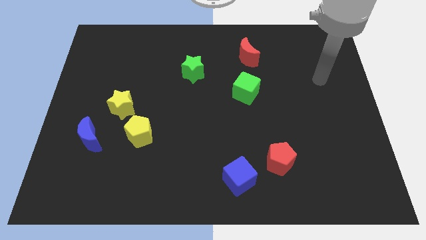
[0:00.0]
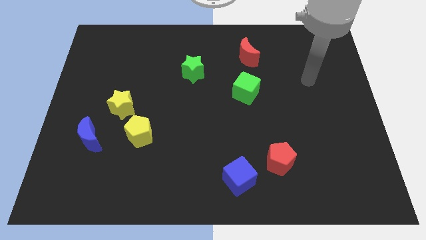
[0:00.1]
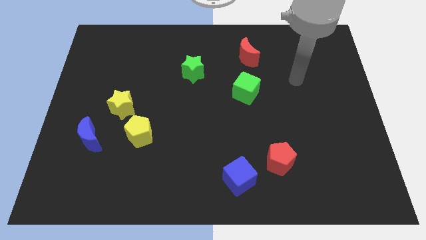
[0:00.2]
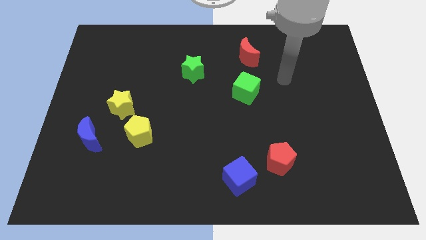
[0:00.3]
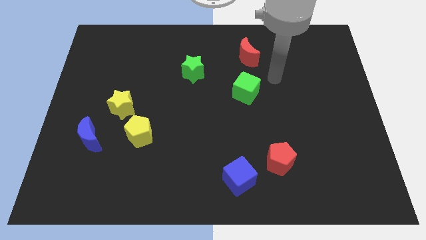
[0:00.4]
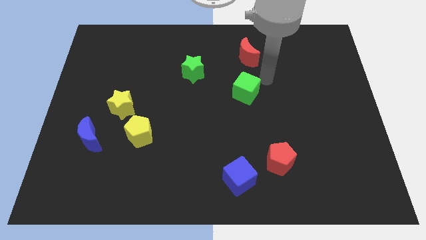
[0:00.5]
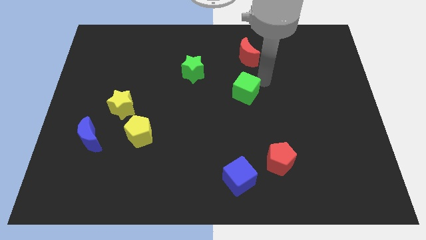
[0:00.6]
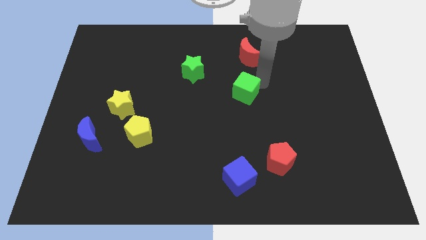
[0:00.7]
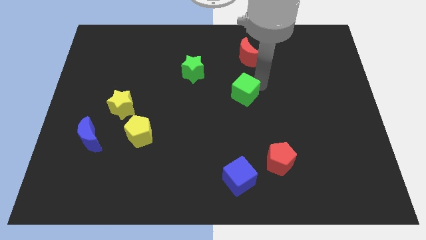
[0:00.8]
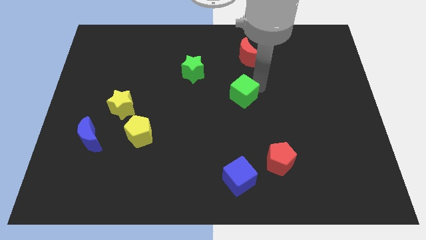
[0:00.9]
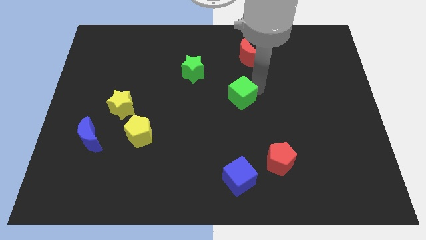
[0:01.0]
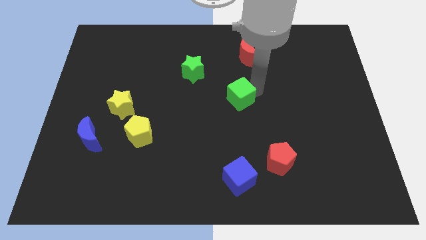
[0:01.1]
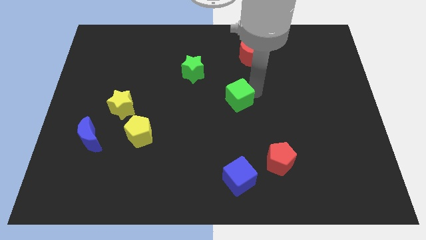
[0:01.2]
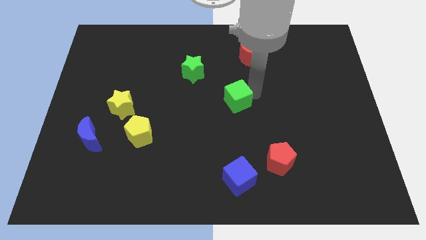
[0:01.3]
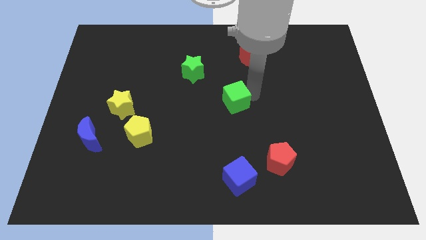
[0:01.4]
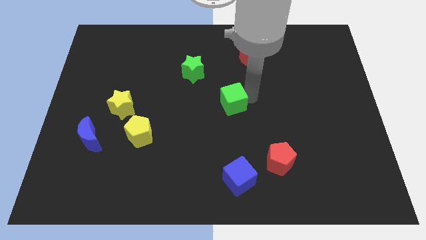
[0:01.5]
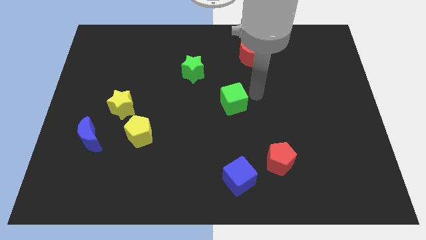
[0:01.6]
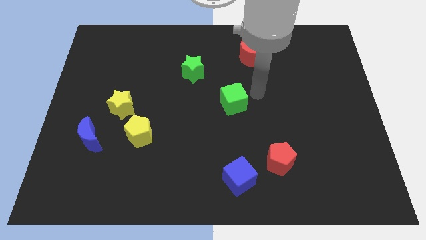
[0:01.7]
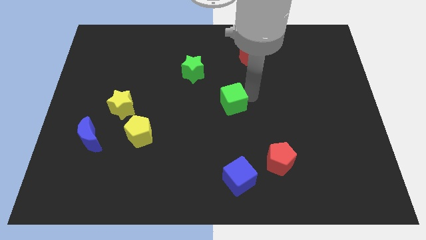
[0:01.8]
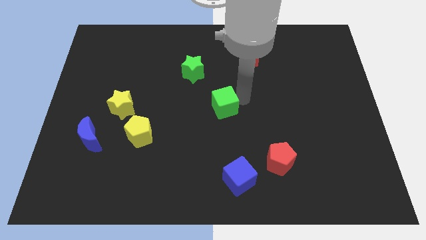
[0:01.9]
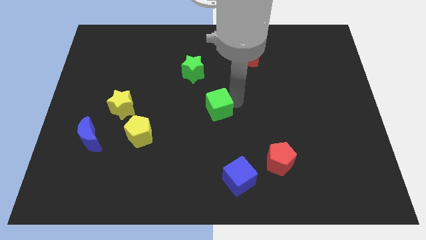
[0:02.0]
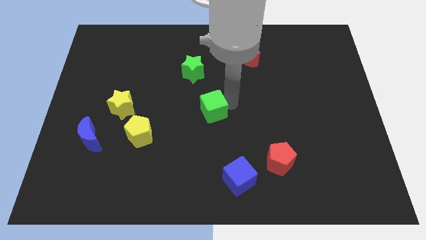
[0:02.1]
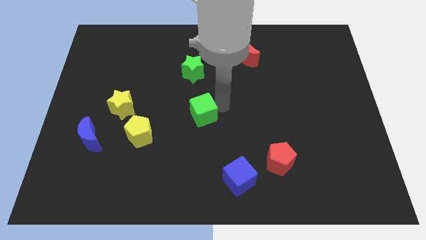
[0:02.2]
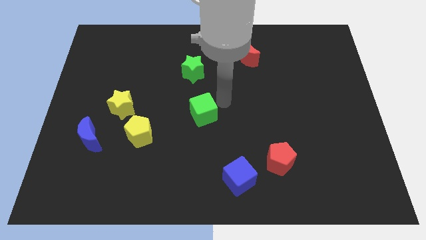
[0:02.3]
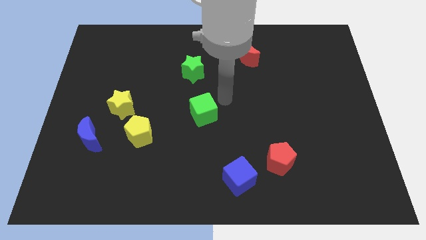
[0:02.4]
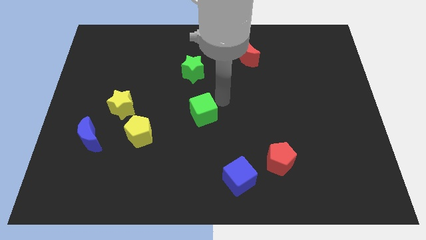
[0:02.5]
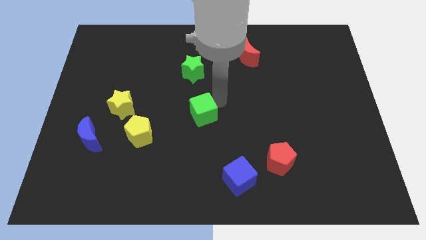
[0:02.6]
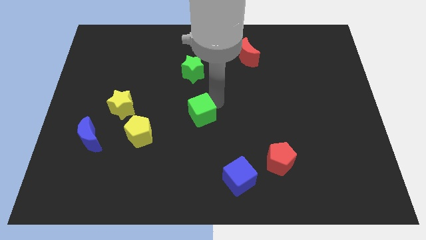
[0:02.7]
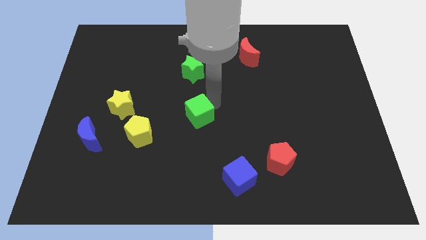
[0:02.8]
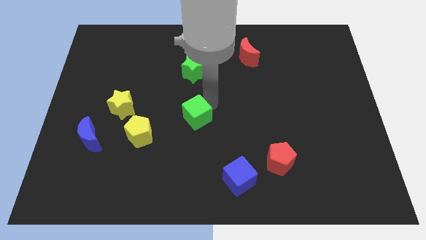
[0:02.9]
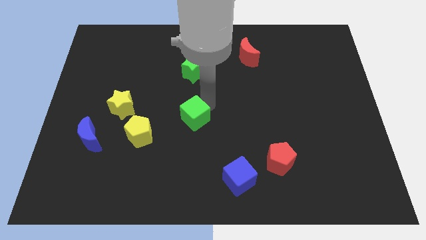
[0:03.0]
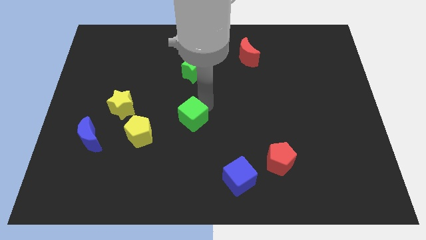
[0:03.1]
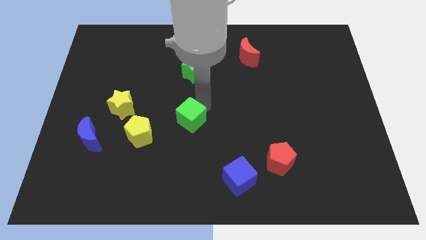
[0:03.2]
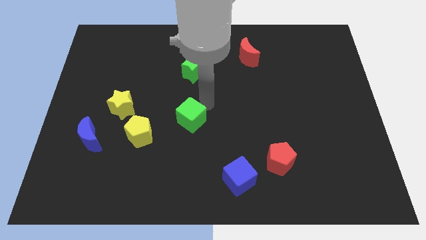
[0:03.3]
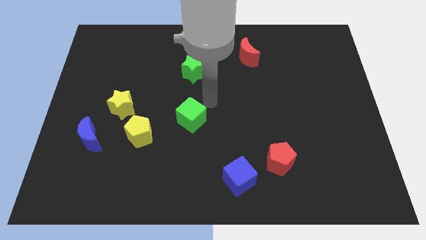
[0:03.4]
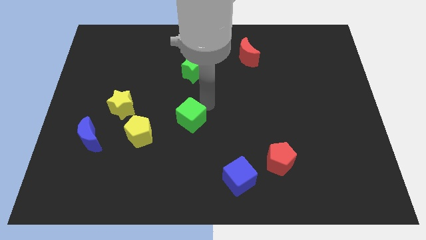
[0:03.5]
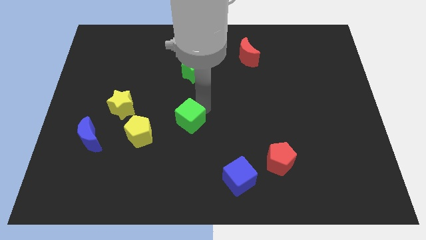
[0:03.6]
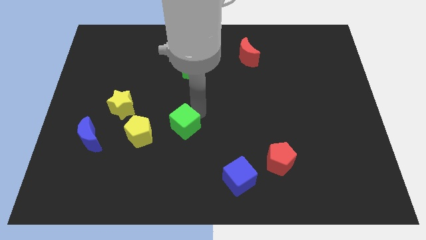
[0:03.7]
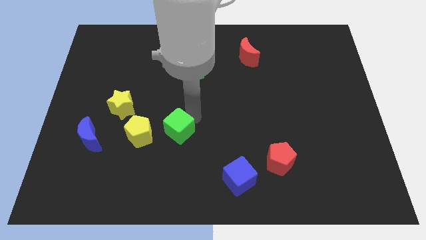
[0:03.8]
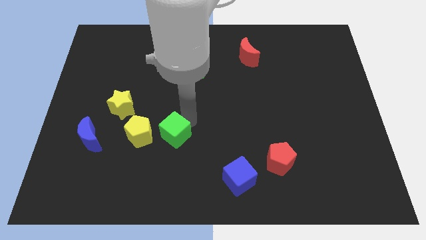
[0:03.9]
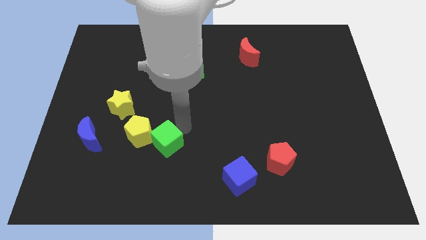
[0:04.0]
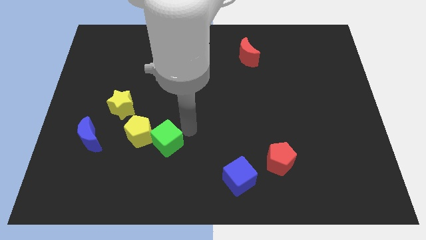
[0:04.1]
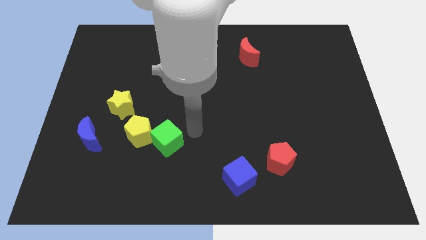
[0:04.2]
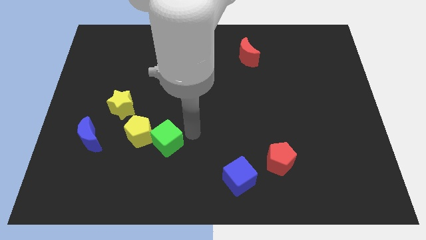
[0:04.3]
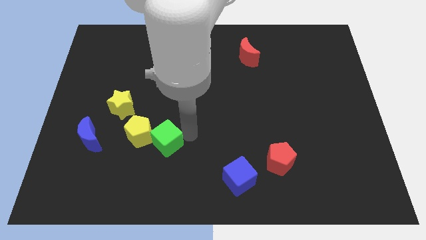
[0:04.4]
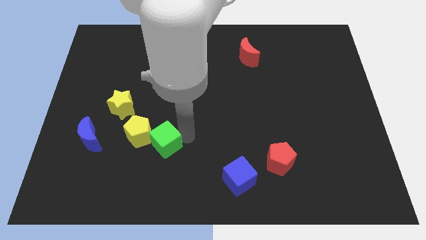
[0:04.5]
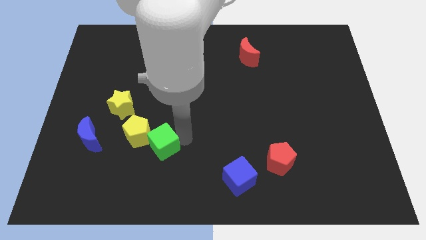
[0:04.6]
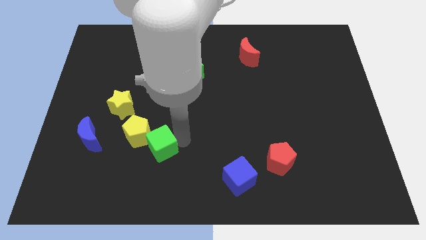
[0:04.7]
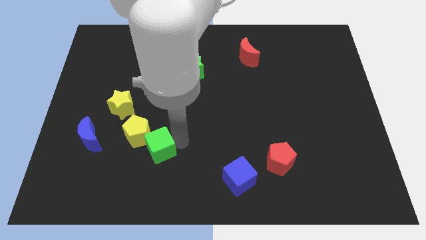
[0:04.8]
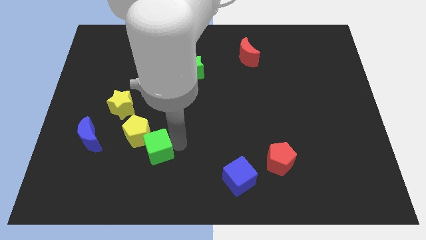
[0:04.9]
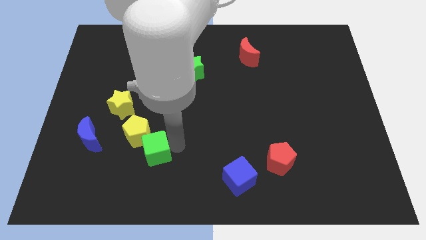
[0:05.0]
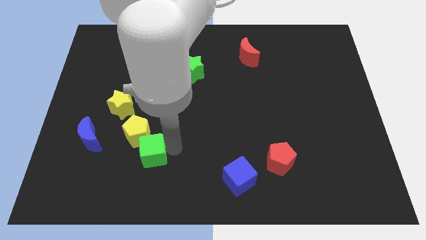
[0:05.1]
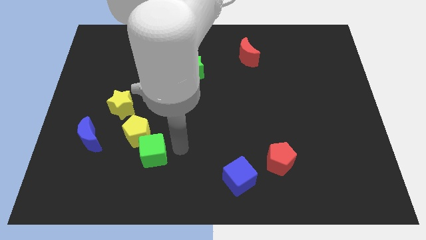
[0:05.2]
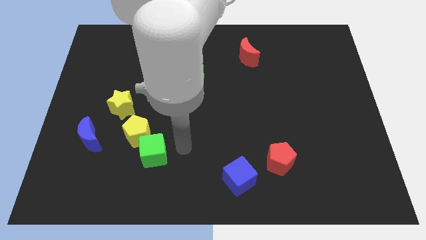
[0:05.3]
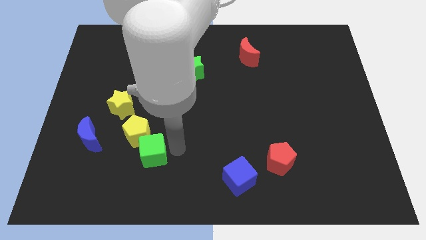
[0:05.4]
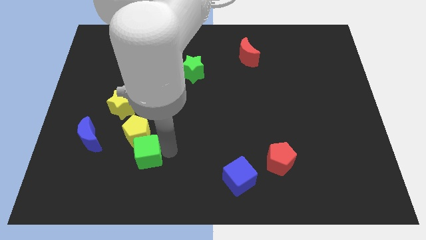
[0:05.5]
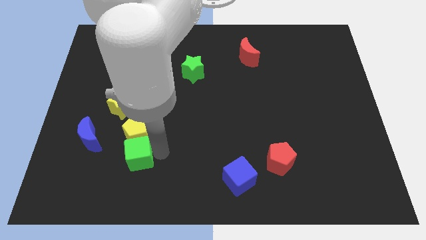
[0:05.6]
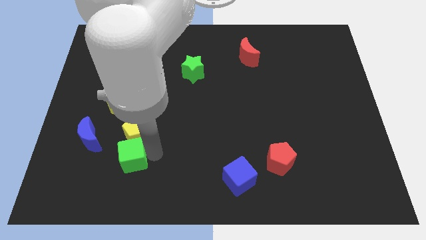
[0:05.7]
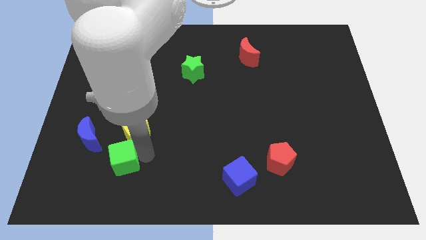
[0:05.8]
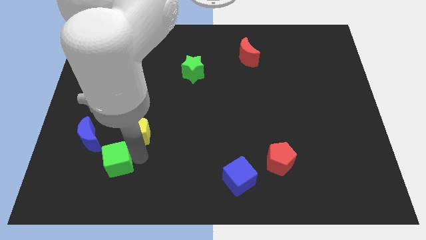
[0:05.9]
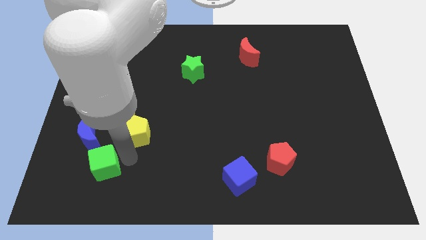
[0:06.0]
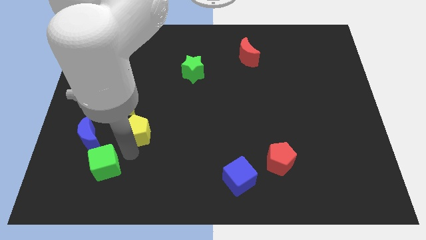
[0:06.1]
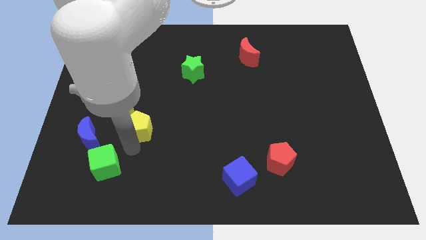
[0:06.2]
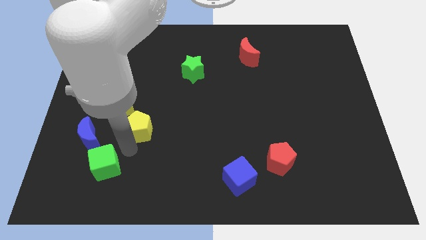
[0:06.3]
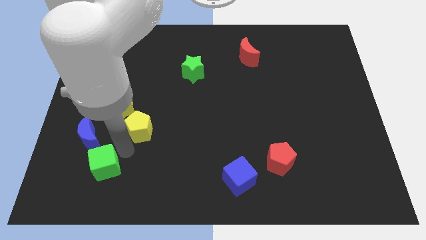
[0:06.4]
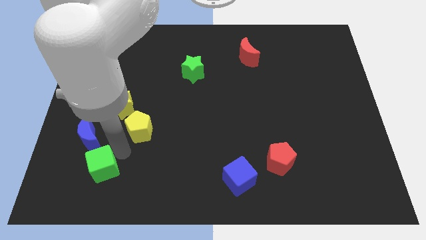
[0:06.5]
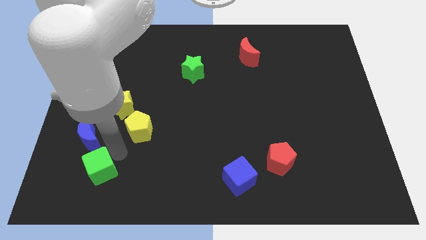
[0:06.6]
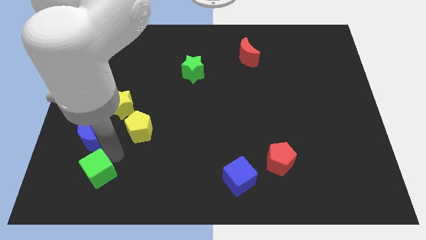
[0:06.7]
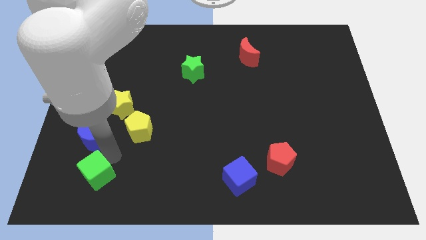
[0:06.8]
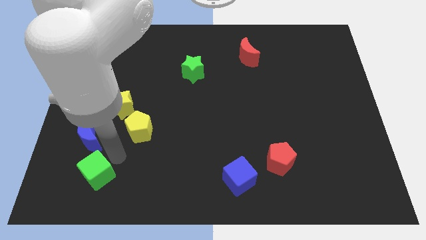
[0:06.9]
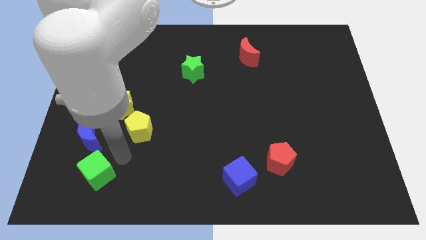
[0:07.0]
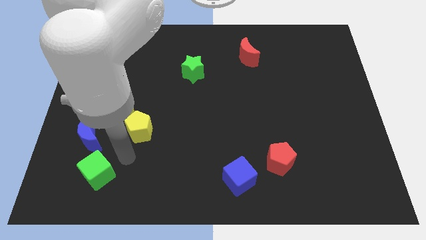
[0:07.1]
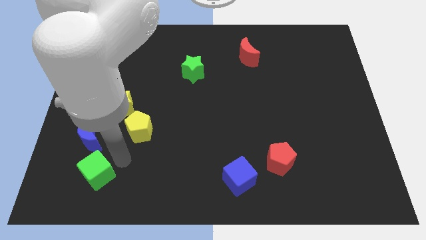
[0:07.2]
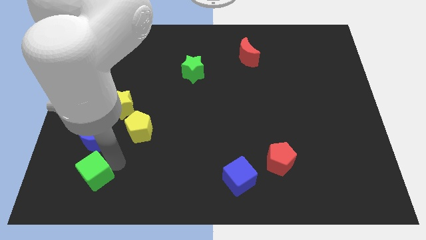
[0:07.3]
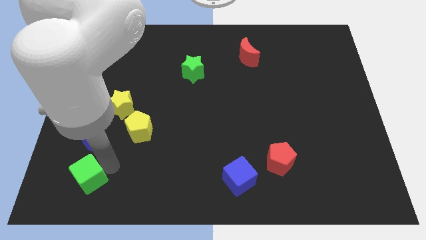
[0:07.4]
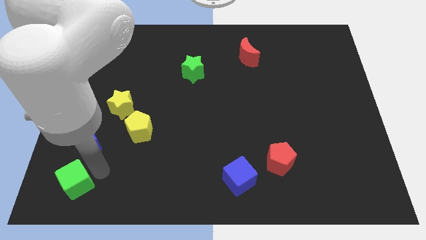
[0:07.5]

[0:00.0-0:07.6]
slide the green cube to the bottom left of the board
